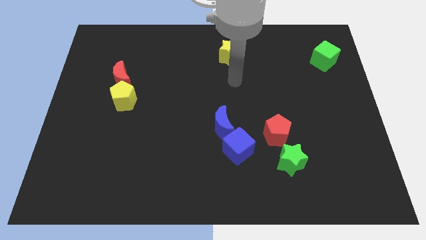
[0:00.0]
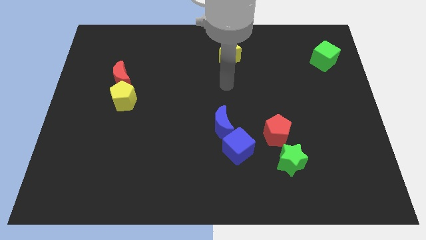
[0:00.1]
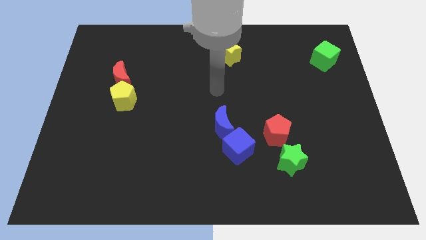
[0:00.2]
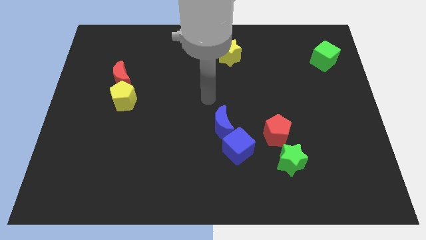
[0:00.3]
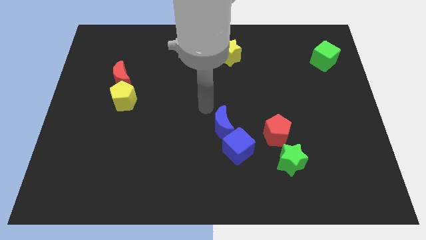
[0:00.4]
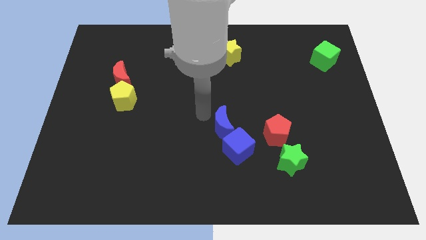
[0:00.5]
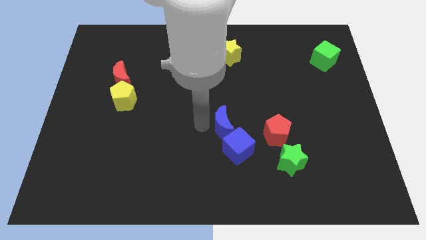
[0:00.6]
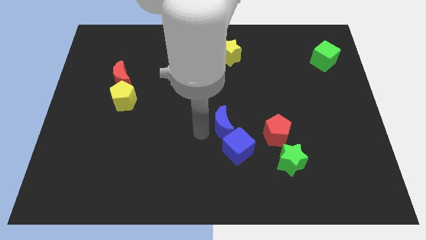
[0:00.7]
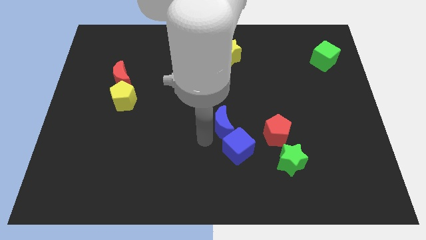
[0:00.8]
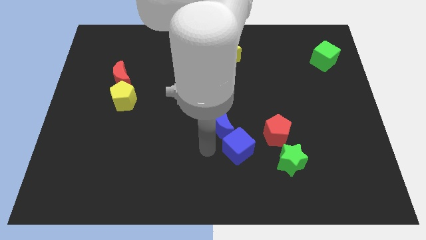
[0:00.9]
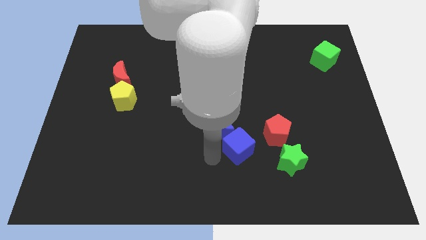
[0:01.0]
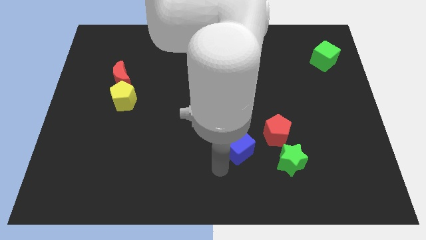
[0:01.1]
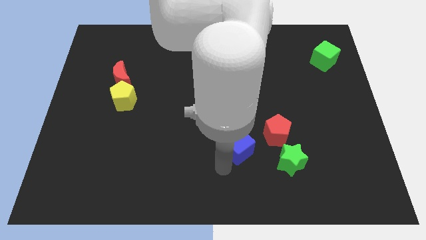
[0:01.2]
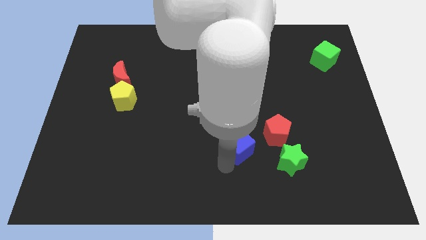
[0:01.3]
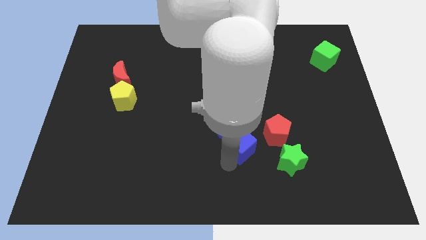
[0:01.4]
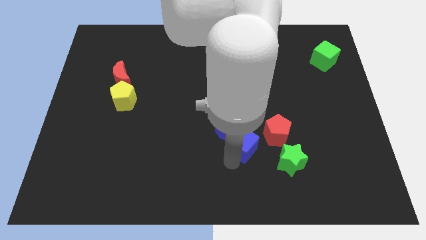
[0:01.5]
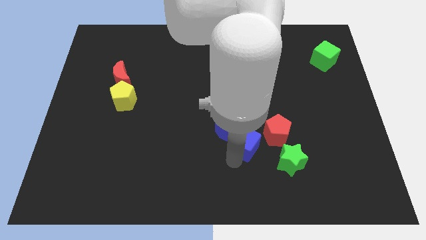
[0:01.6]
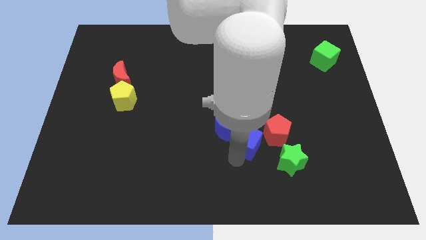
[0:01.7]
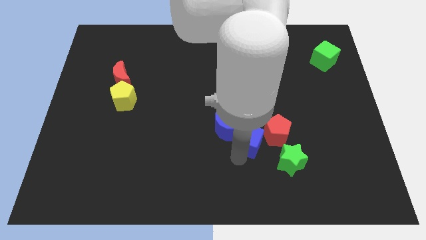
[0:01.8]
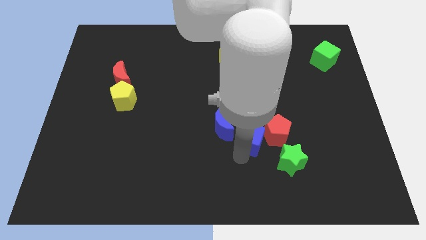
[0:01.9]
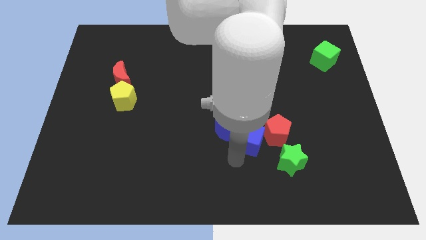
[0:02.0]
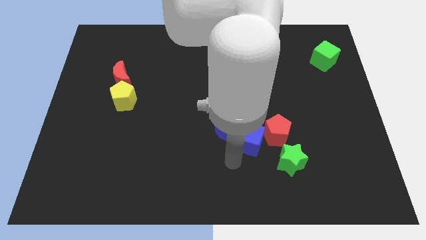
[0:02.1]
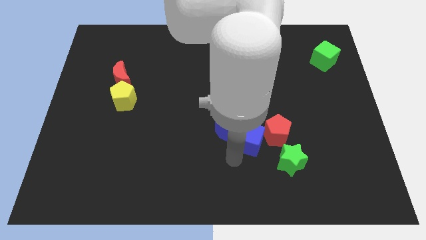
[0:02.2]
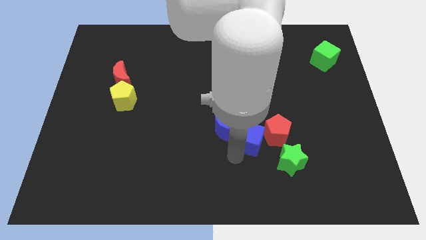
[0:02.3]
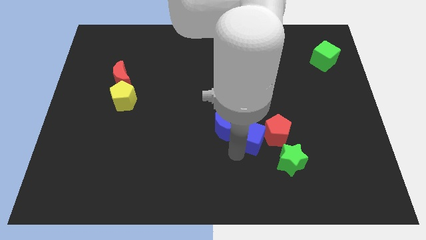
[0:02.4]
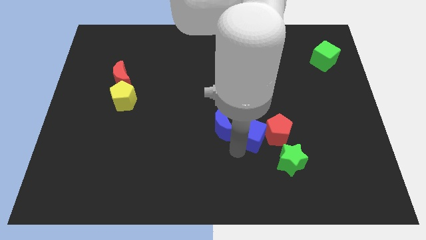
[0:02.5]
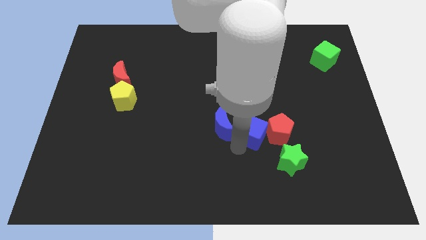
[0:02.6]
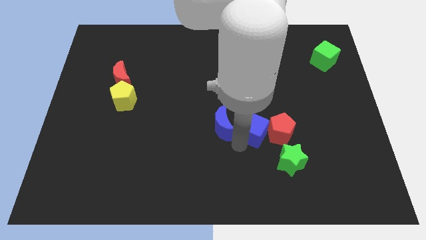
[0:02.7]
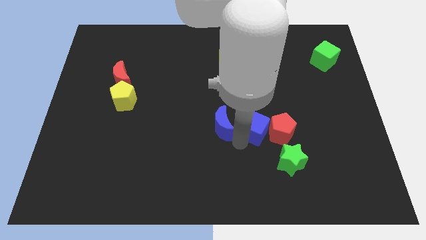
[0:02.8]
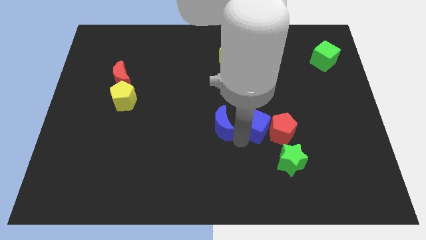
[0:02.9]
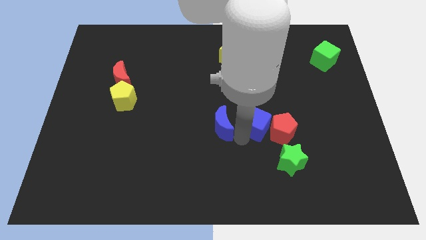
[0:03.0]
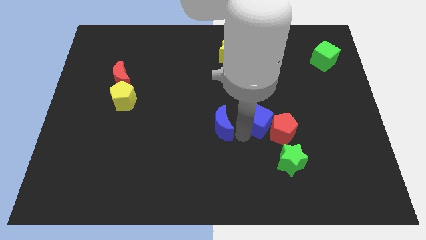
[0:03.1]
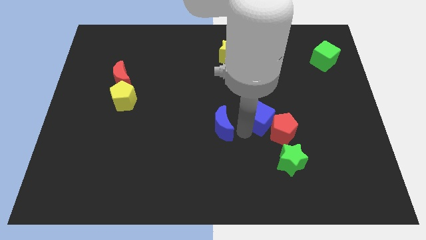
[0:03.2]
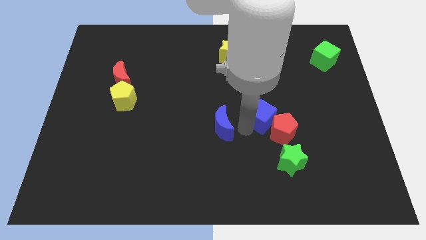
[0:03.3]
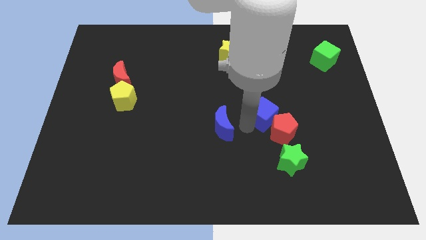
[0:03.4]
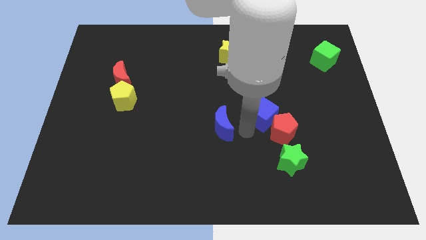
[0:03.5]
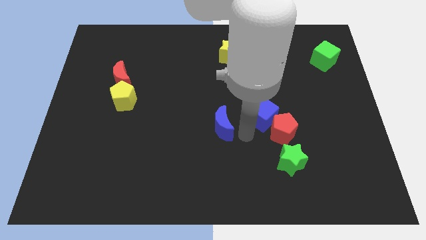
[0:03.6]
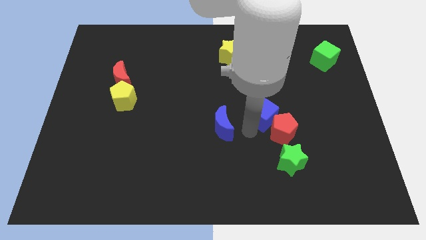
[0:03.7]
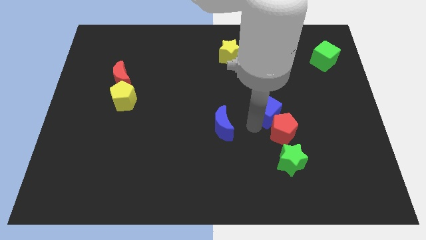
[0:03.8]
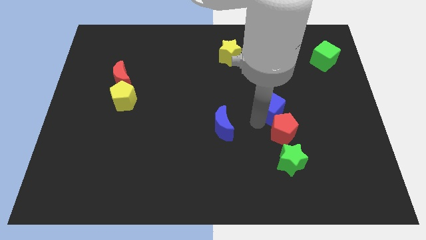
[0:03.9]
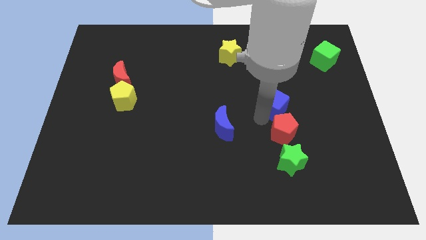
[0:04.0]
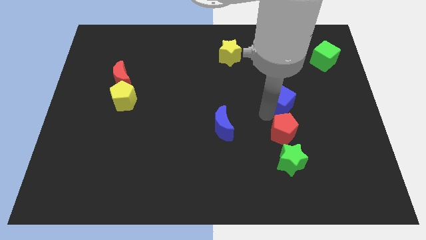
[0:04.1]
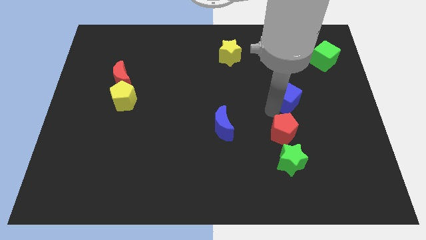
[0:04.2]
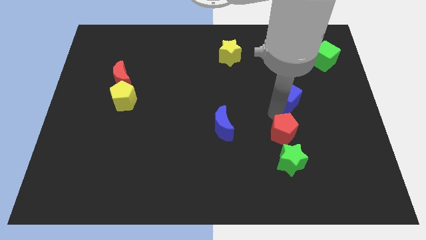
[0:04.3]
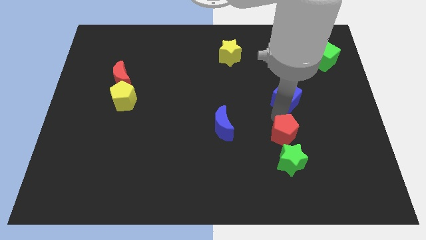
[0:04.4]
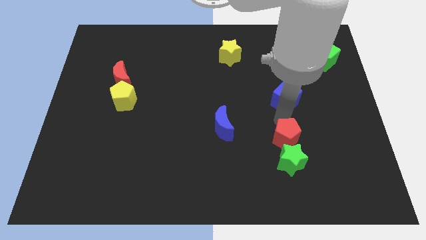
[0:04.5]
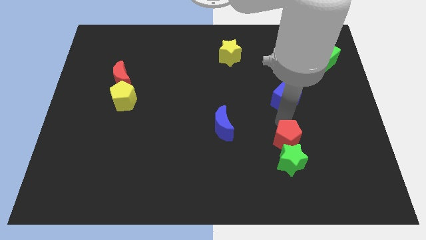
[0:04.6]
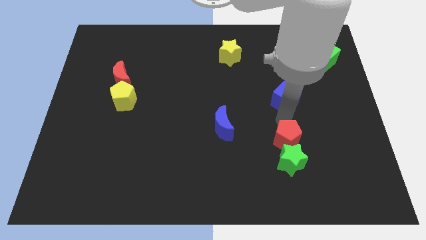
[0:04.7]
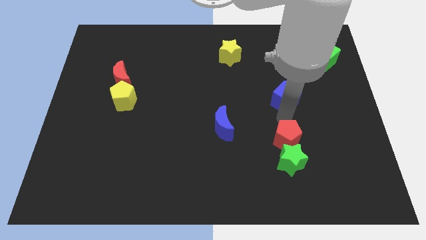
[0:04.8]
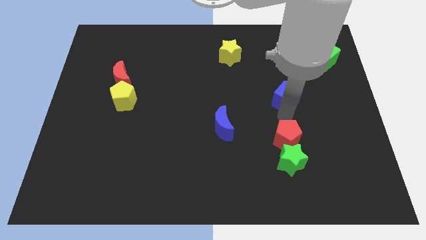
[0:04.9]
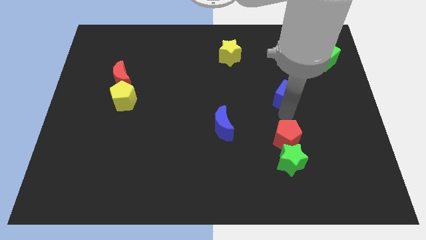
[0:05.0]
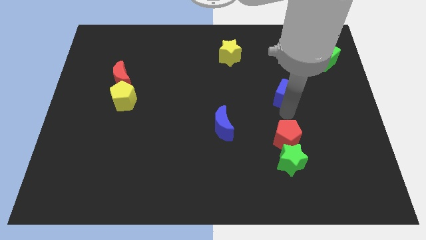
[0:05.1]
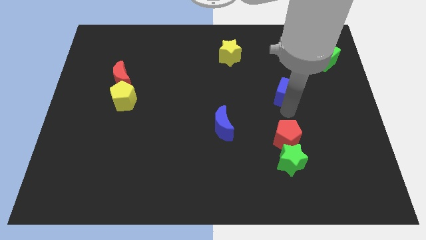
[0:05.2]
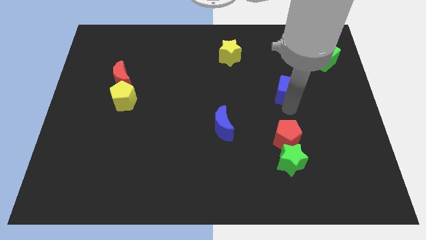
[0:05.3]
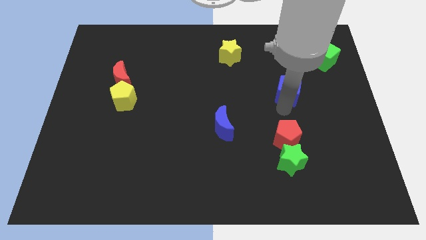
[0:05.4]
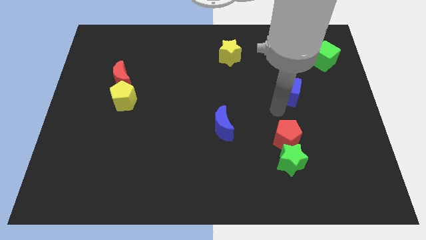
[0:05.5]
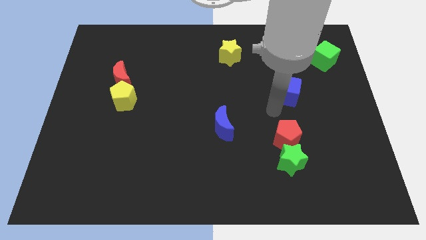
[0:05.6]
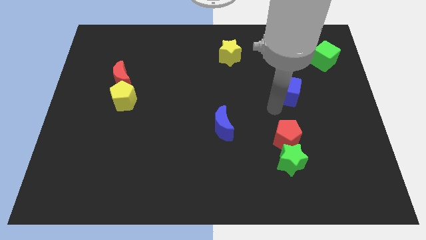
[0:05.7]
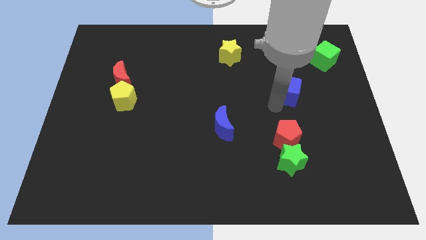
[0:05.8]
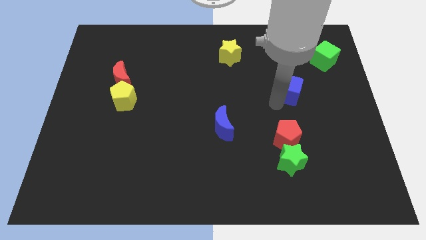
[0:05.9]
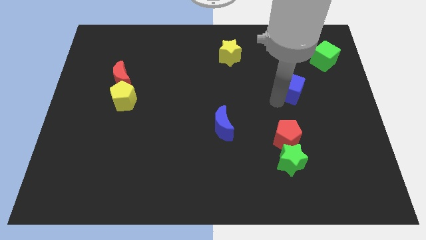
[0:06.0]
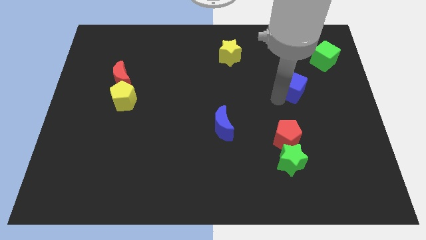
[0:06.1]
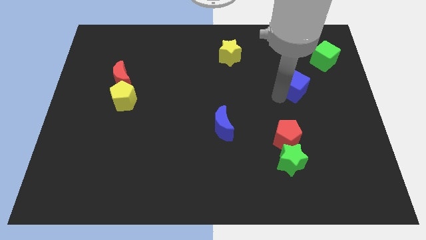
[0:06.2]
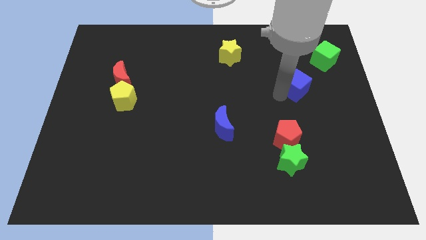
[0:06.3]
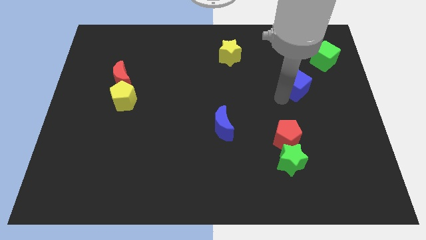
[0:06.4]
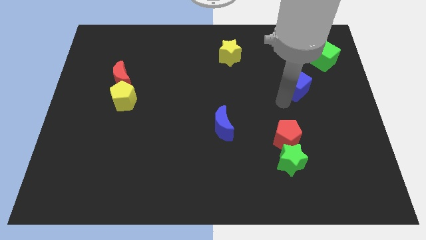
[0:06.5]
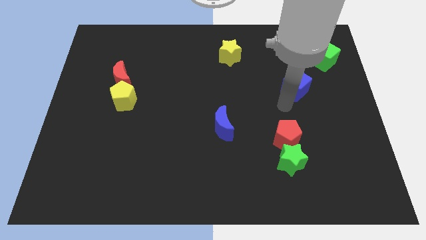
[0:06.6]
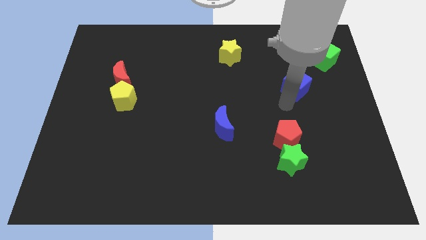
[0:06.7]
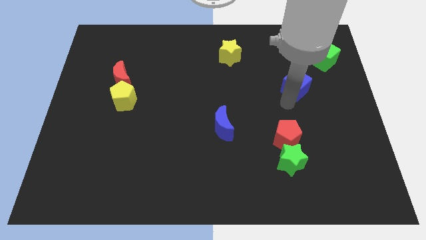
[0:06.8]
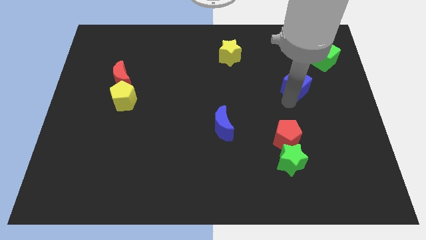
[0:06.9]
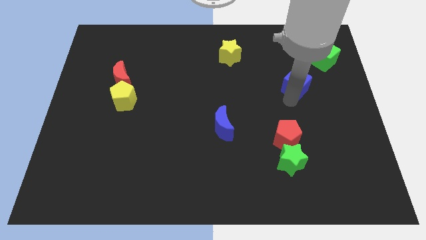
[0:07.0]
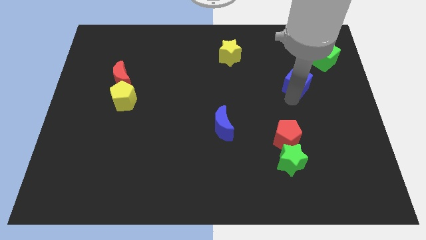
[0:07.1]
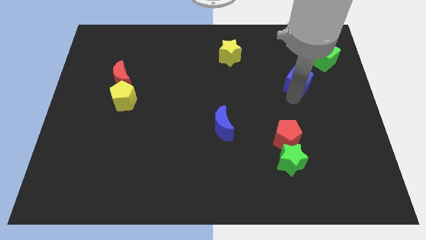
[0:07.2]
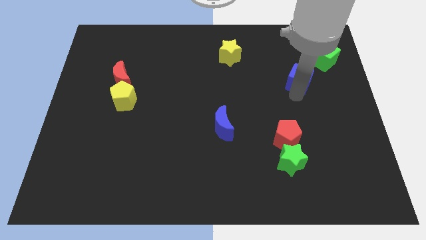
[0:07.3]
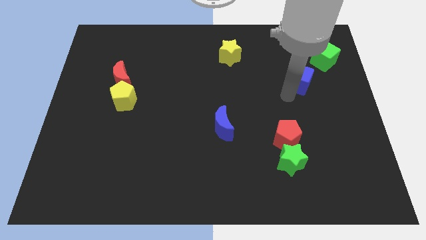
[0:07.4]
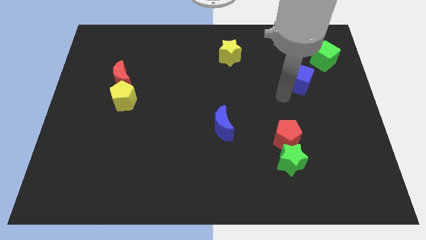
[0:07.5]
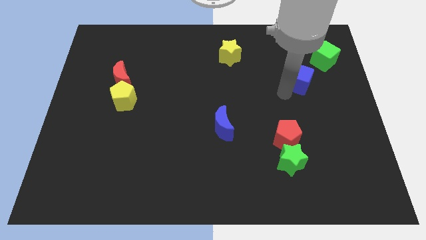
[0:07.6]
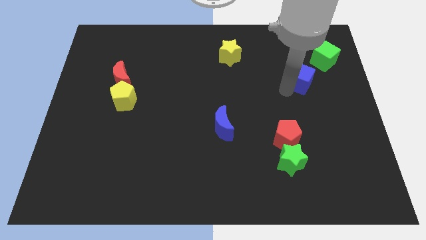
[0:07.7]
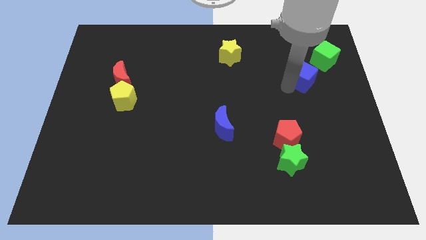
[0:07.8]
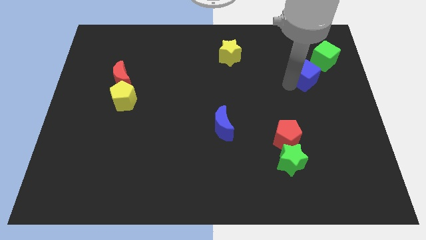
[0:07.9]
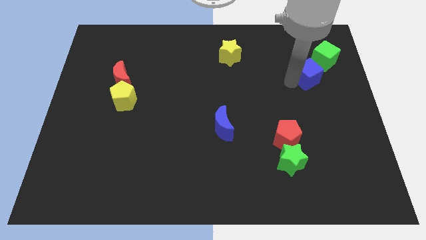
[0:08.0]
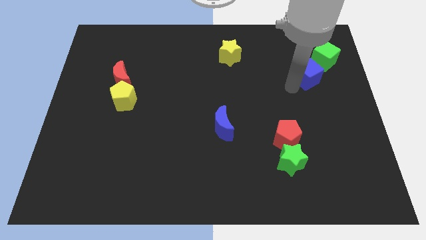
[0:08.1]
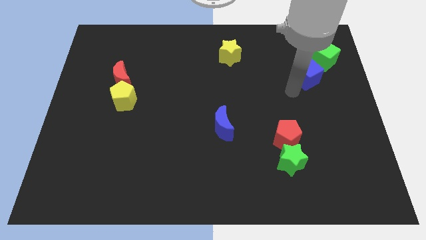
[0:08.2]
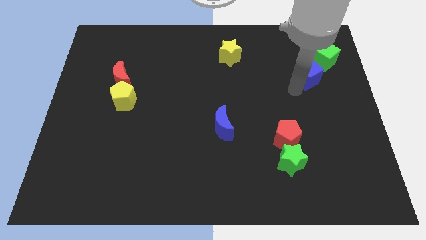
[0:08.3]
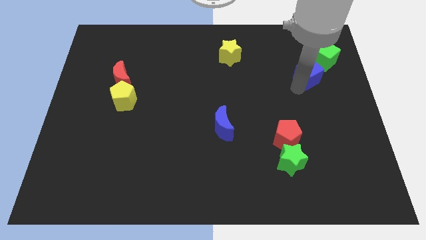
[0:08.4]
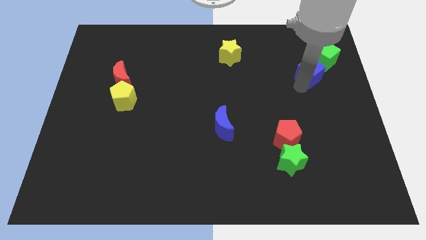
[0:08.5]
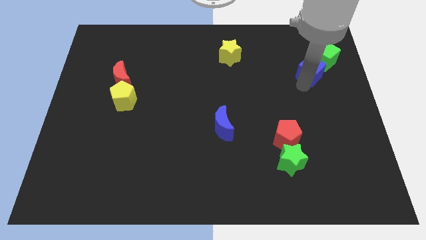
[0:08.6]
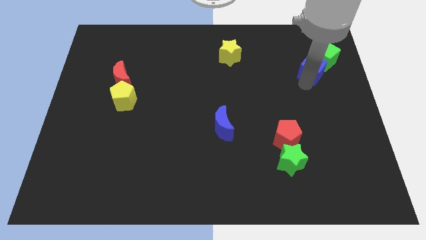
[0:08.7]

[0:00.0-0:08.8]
move the blue cube towards the green cube
